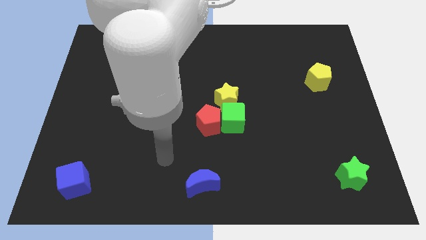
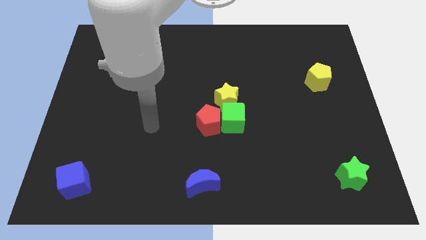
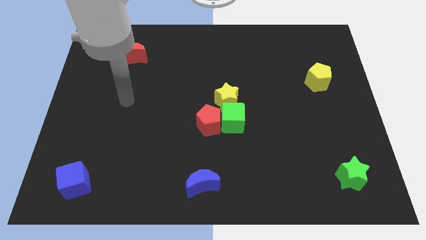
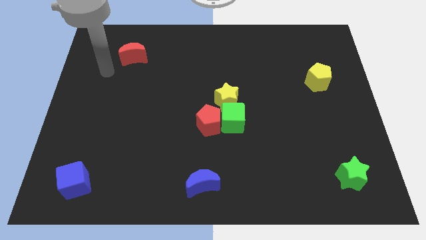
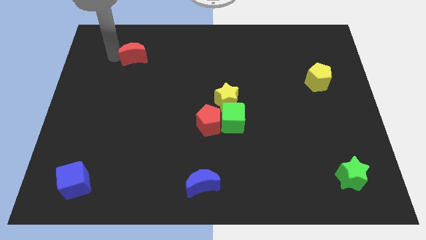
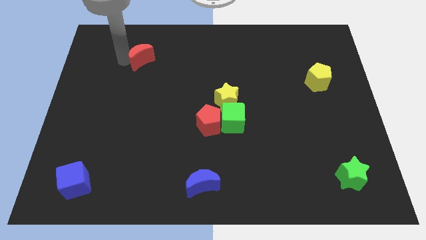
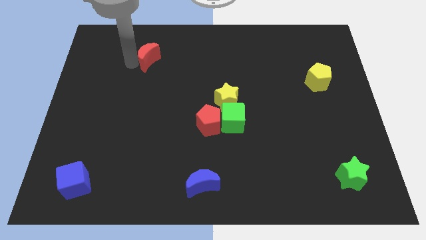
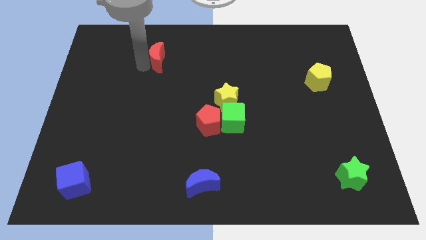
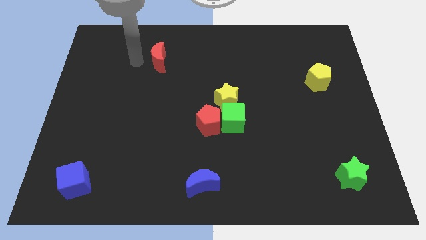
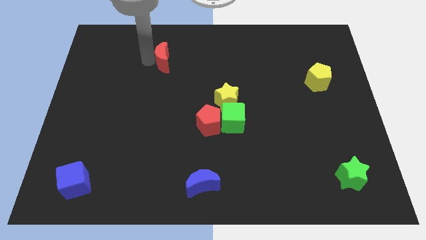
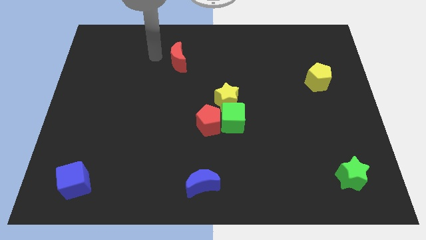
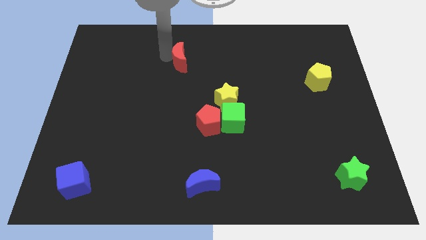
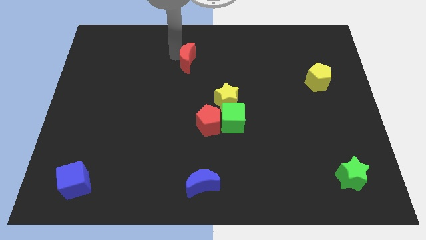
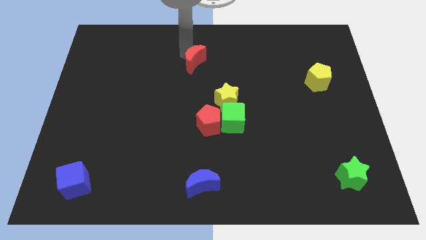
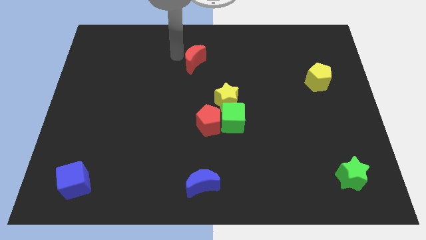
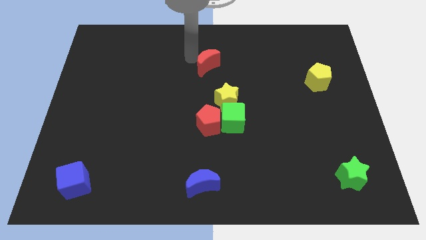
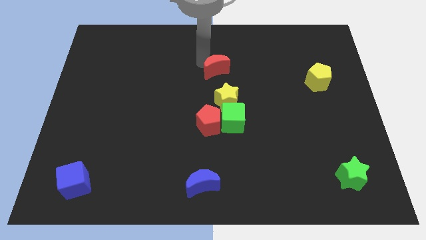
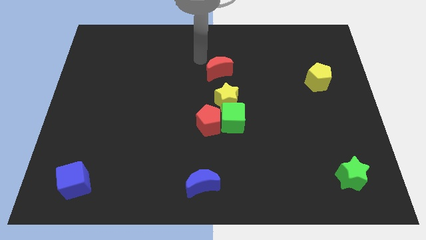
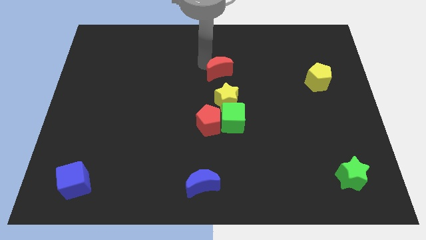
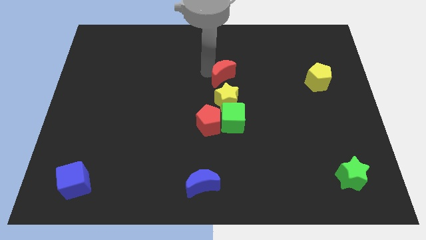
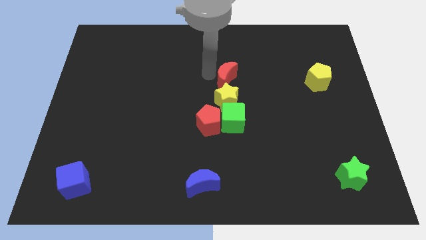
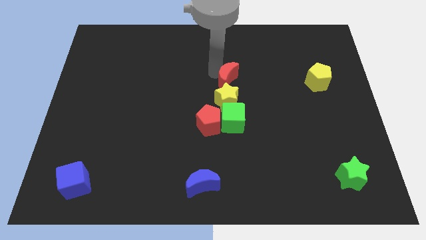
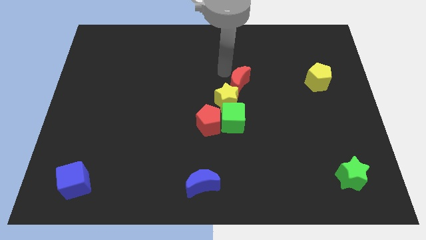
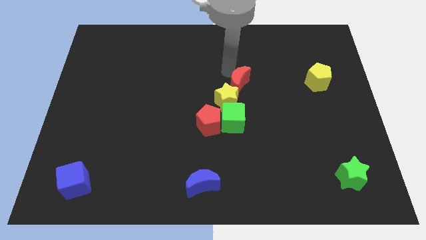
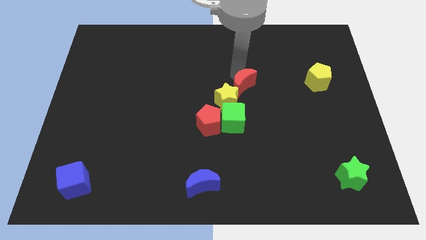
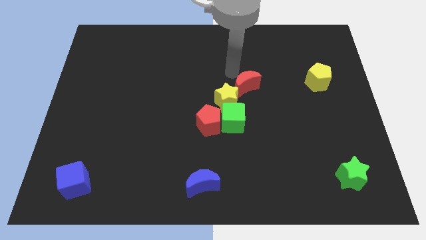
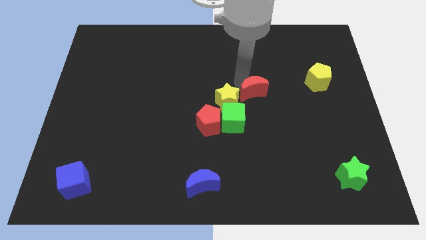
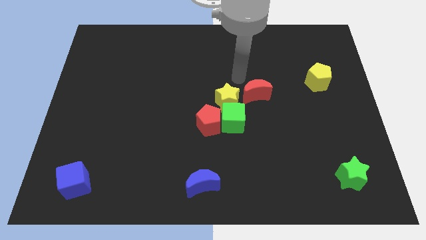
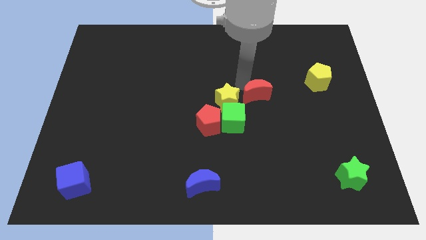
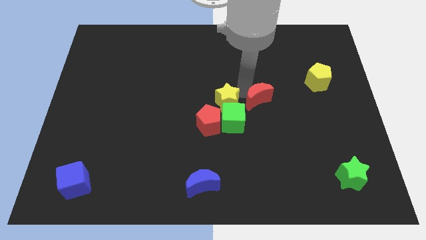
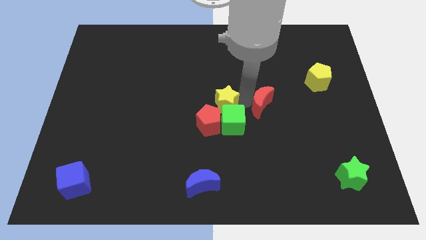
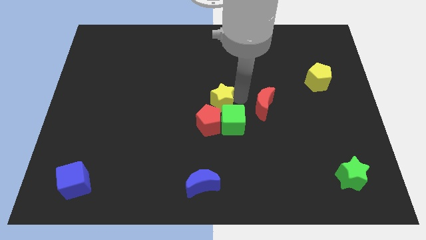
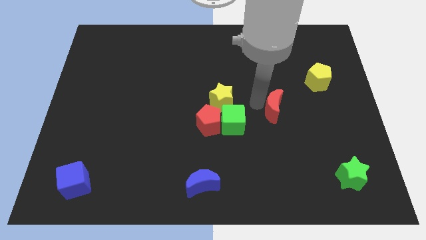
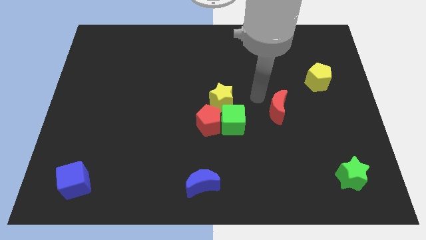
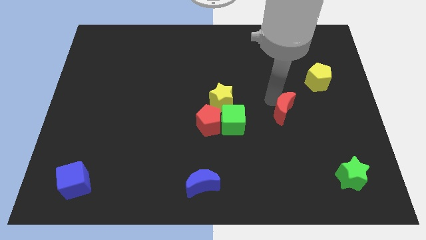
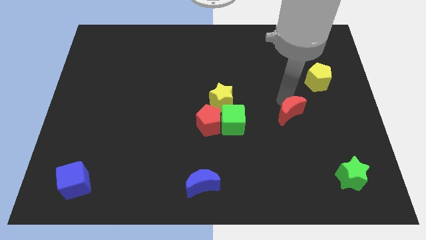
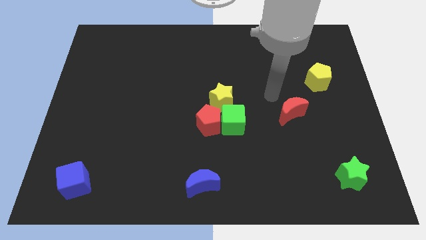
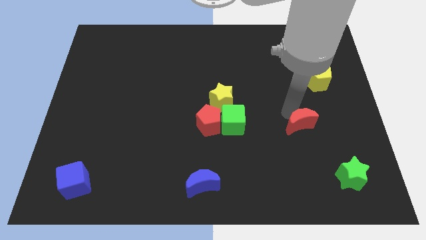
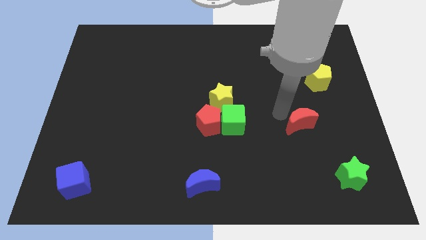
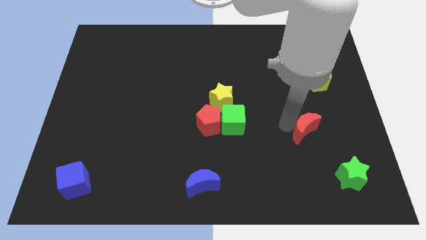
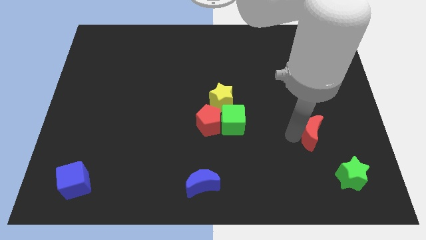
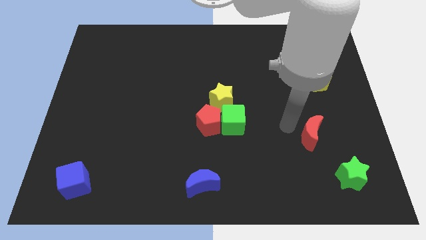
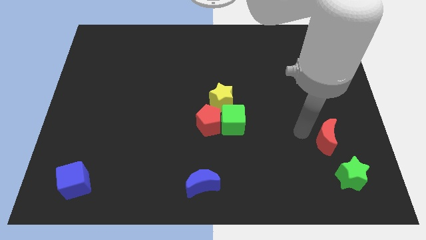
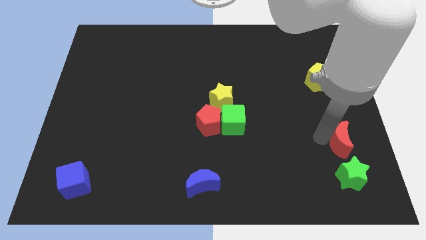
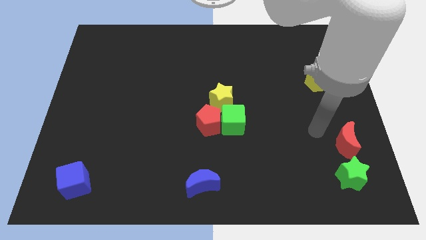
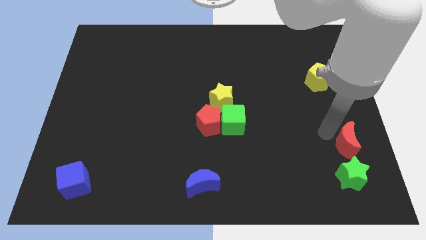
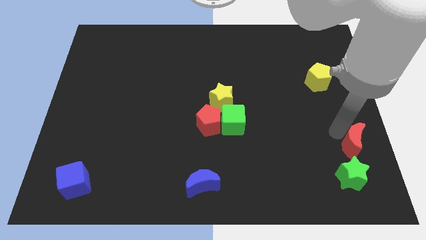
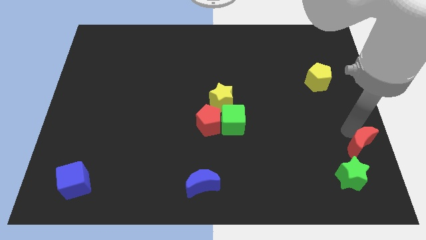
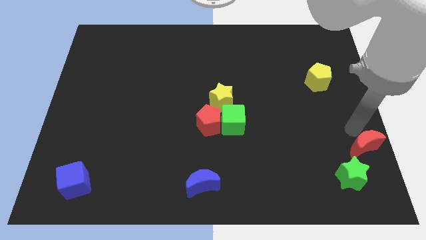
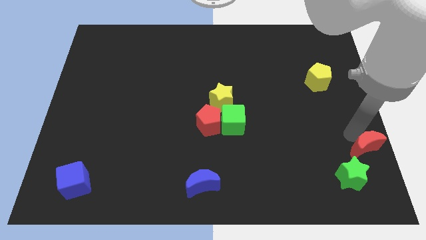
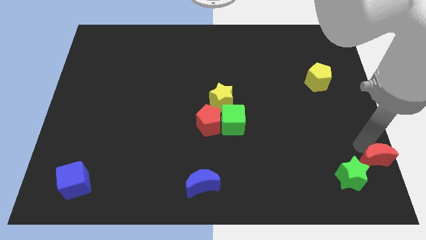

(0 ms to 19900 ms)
slide the red moon to the lower right corner

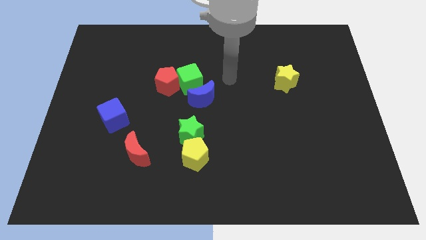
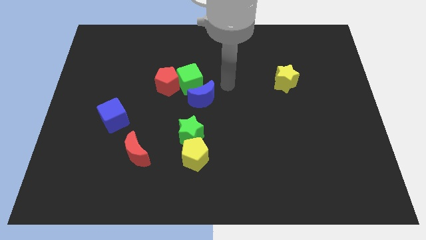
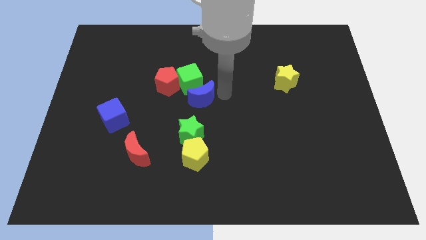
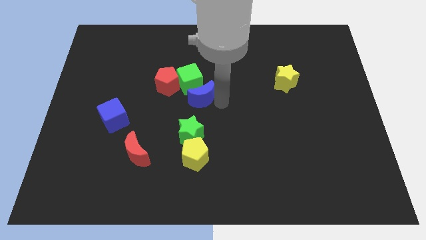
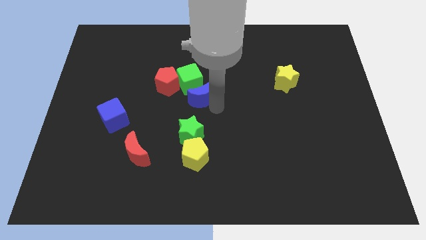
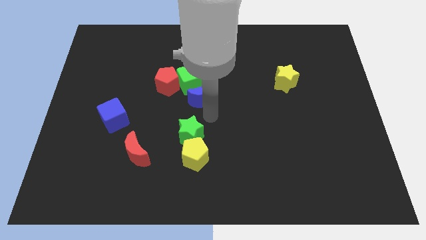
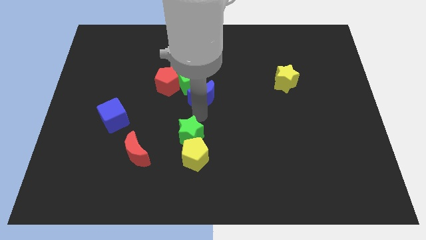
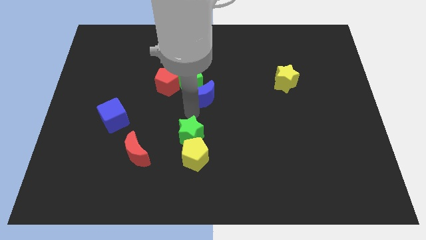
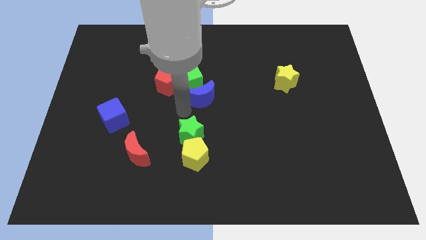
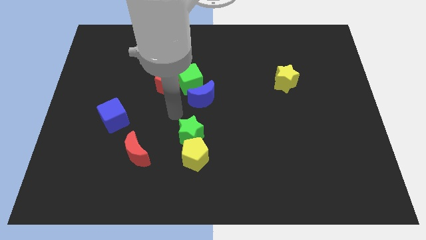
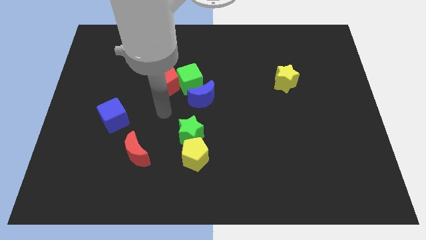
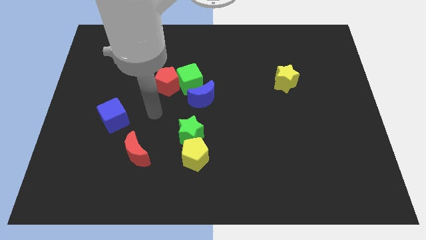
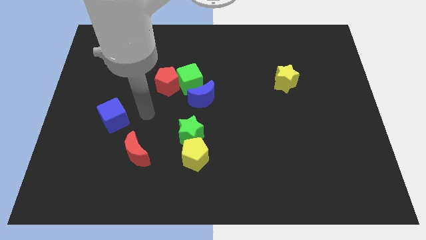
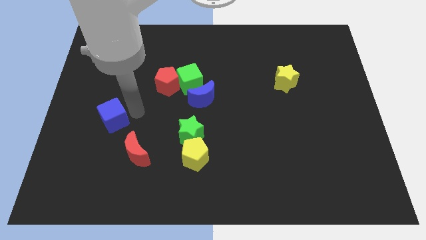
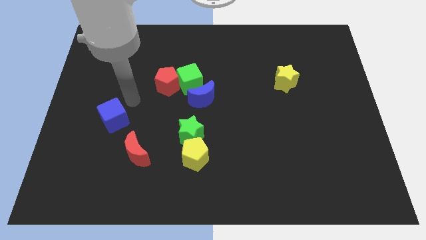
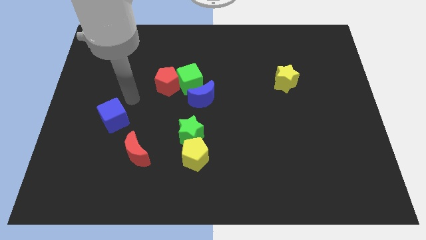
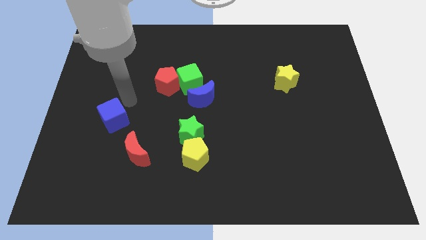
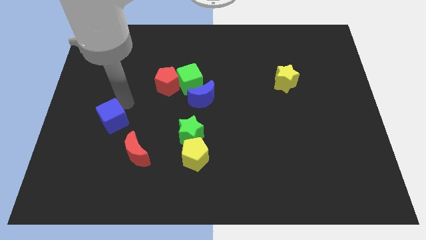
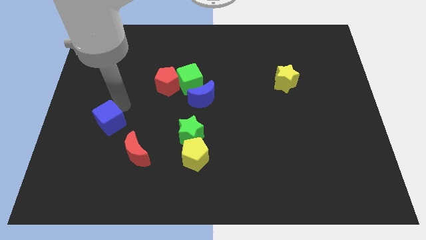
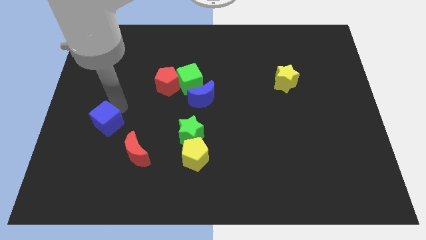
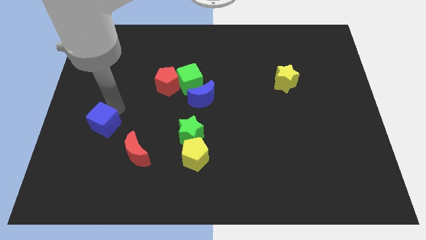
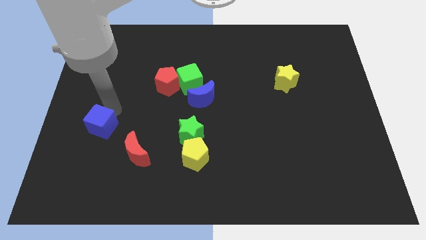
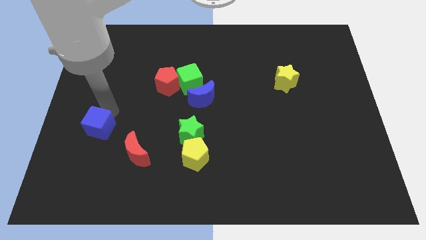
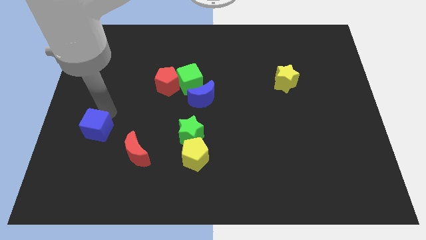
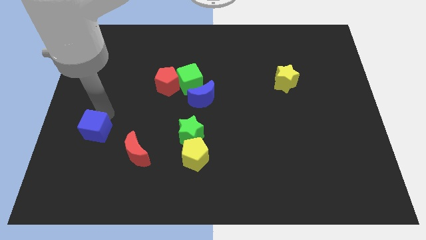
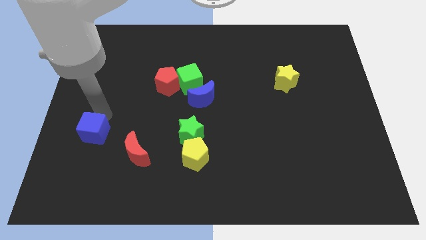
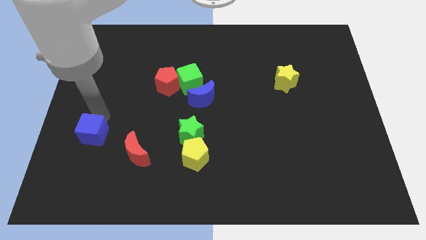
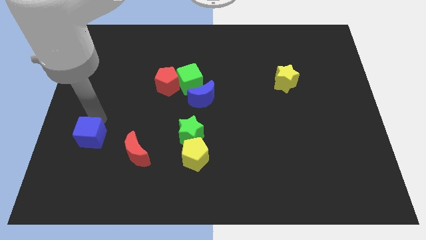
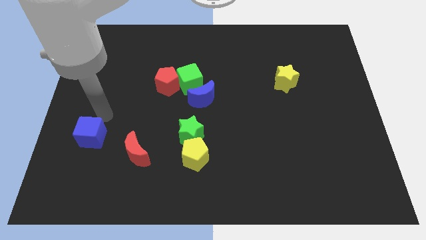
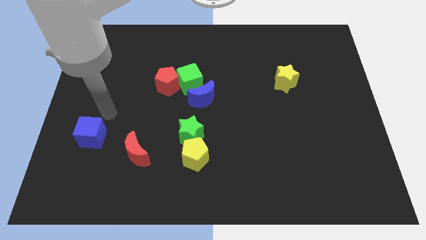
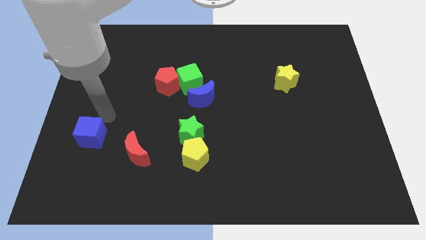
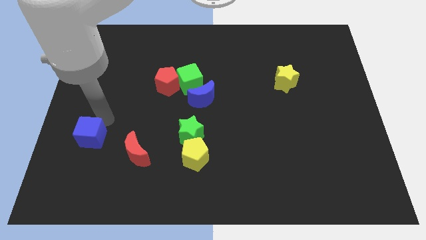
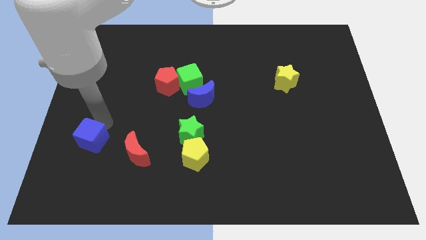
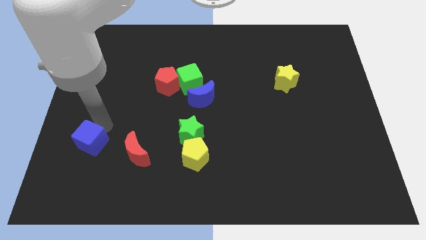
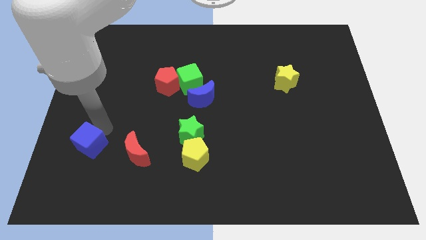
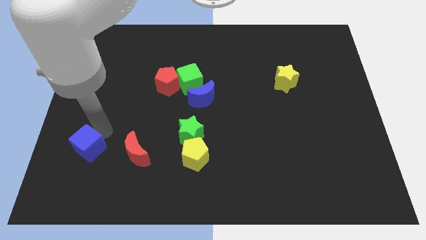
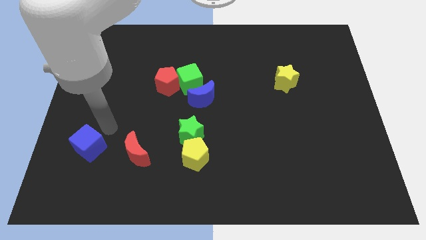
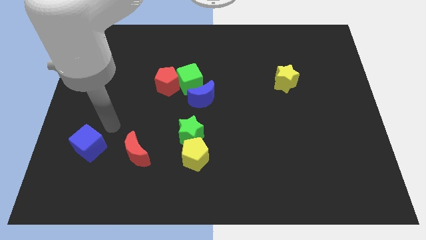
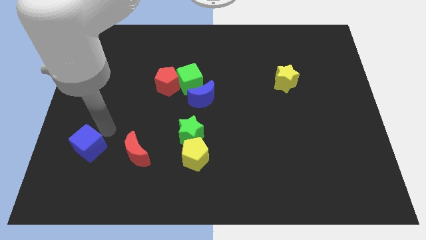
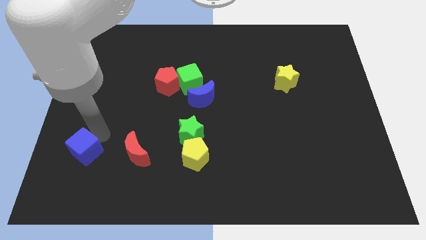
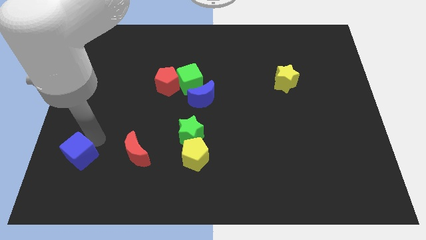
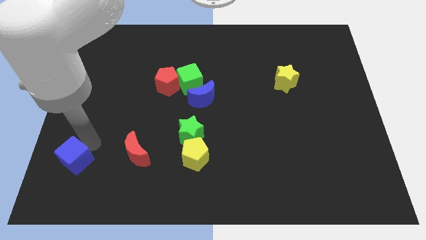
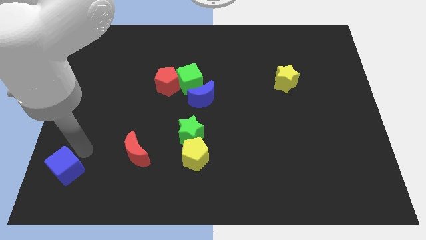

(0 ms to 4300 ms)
move the blue cube to the bottom left of the board
